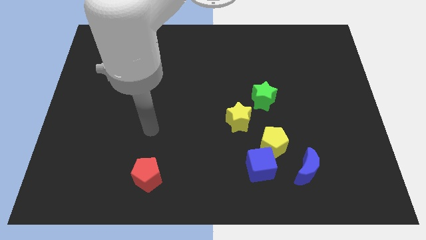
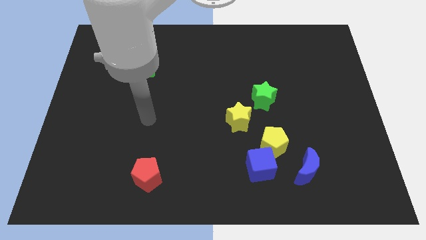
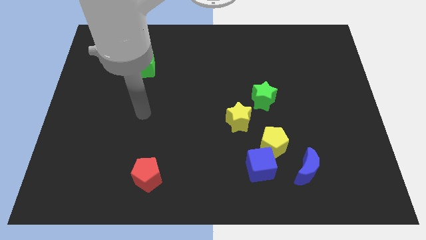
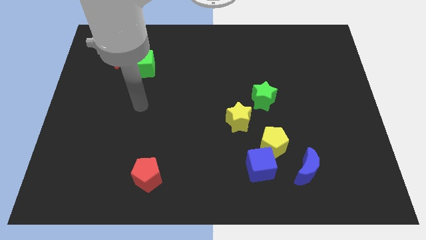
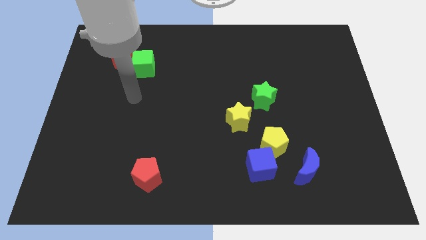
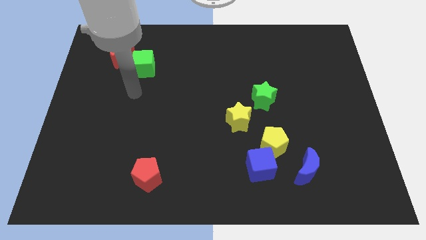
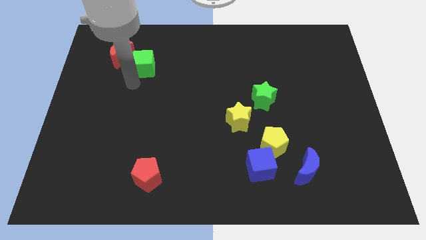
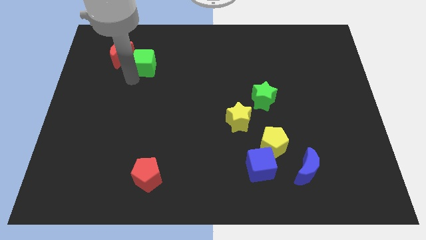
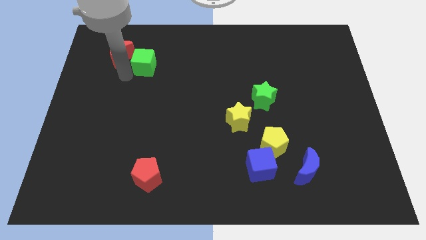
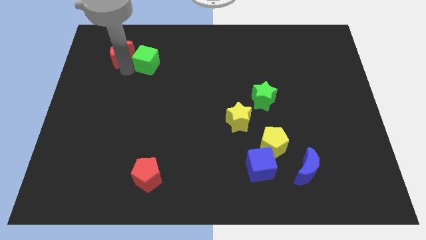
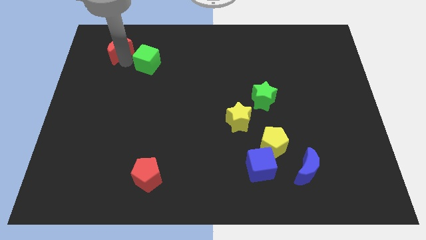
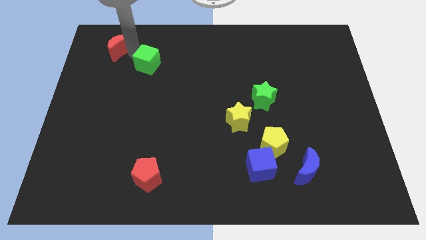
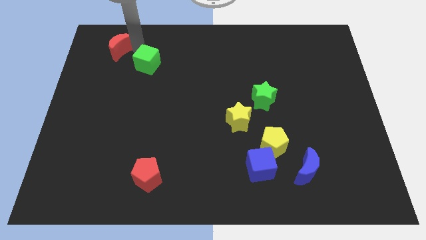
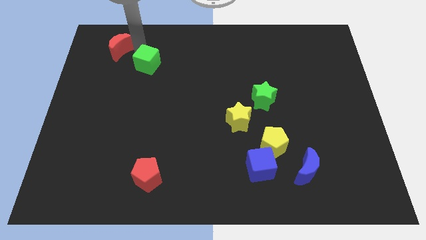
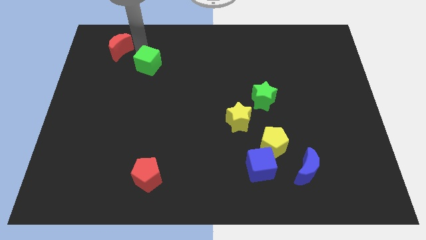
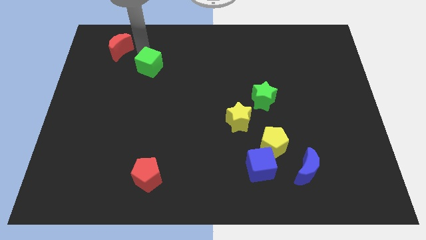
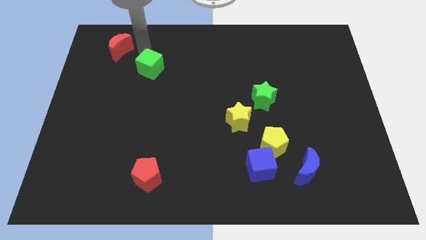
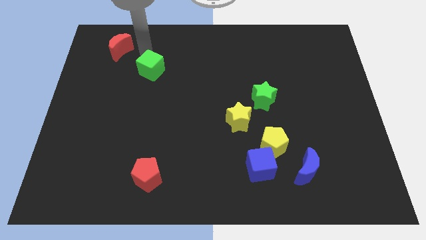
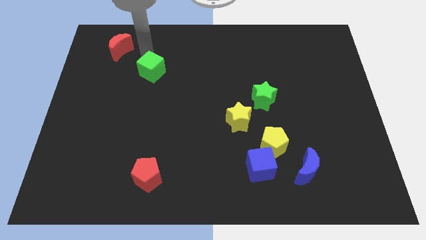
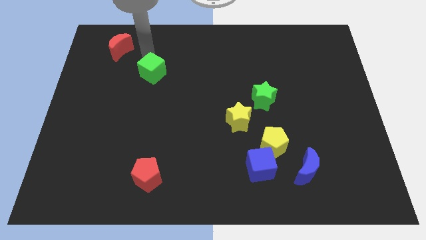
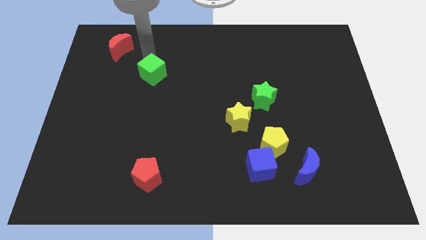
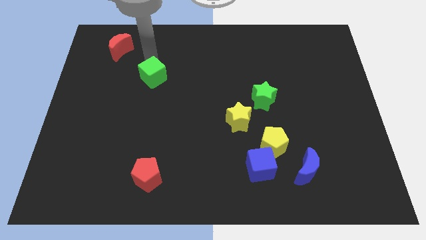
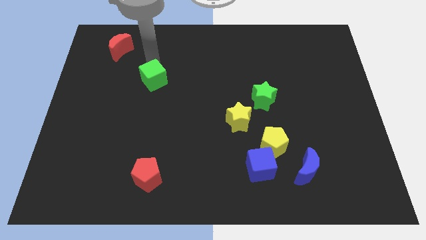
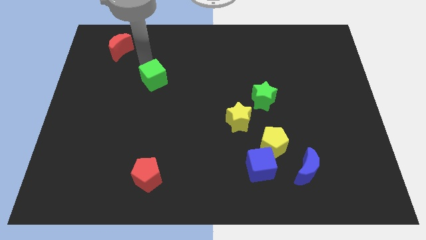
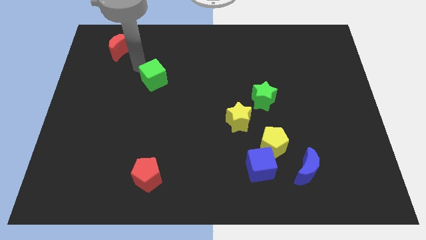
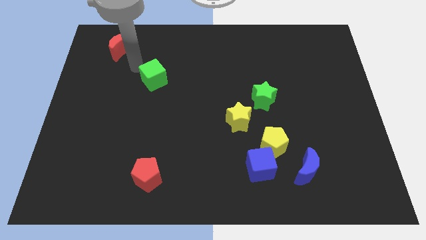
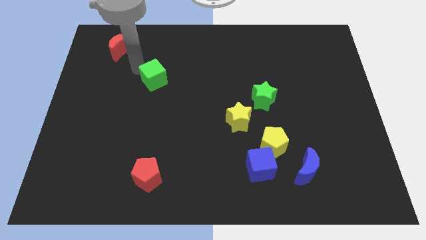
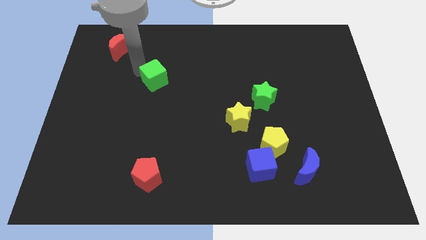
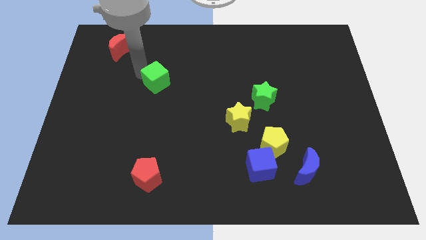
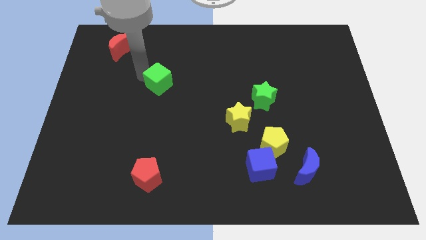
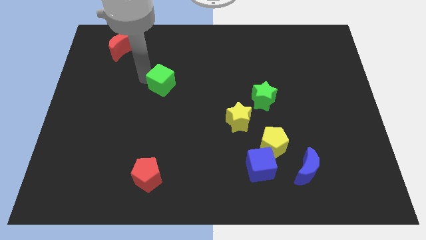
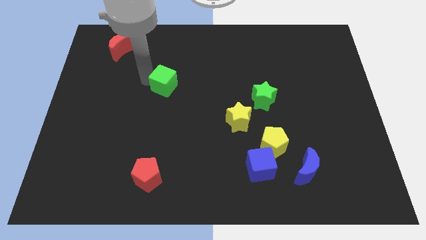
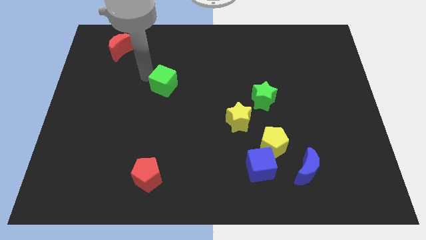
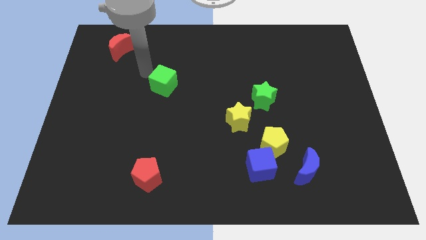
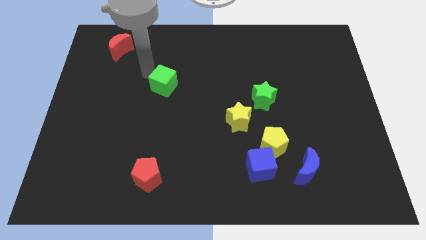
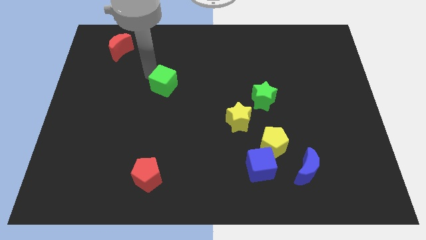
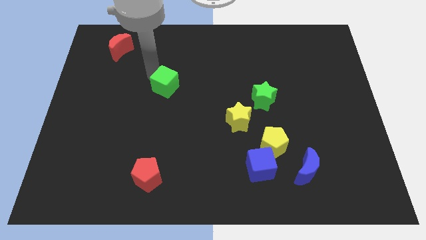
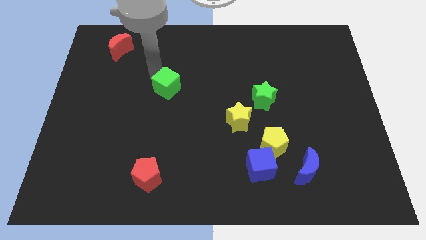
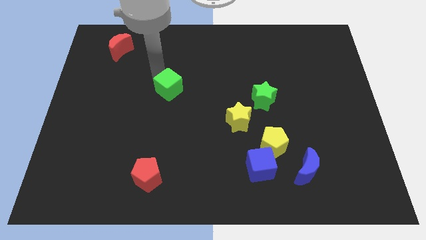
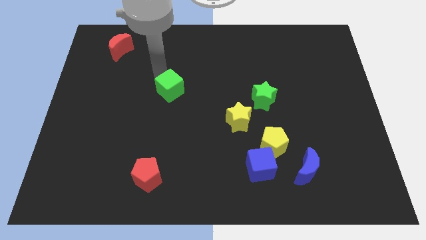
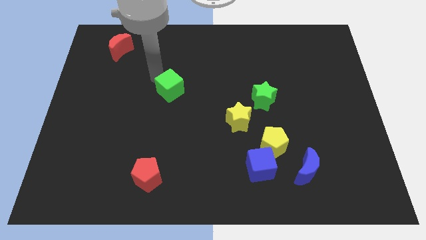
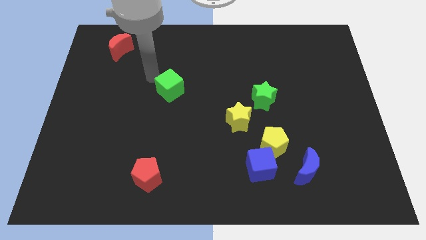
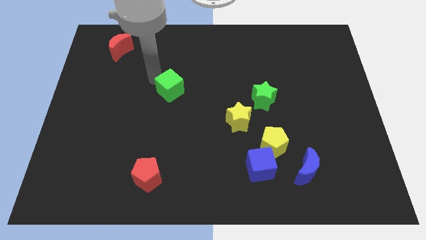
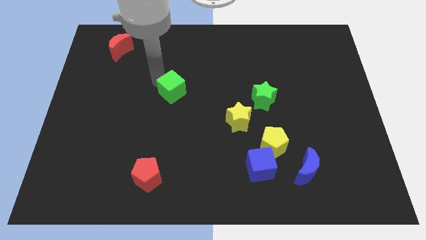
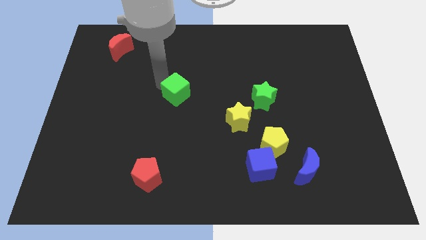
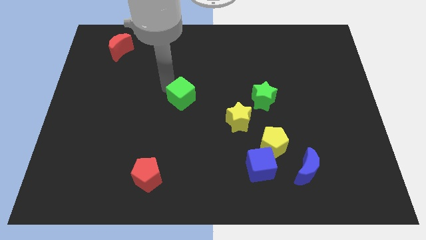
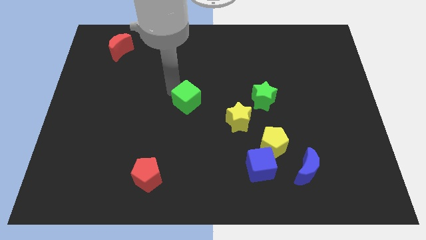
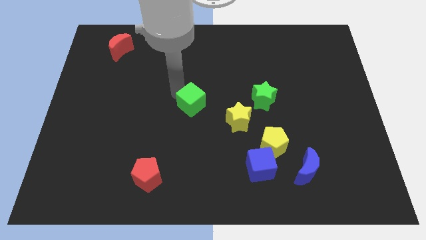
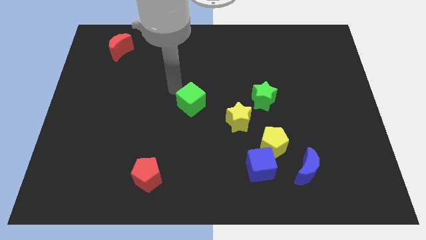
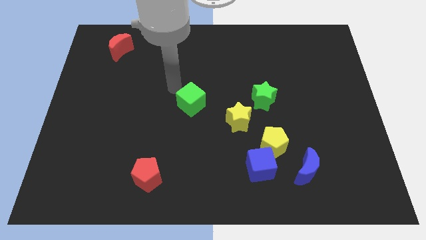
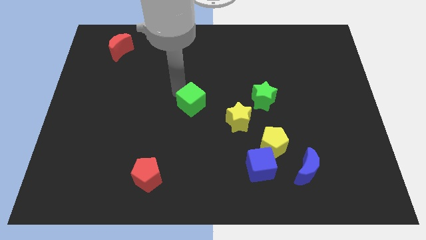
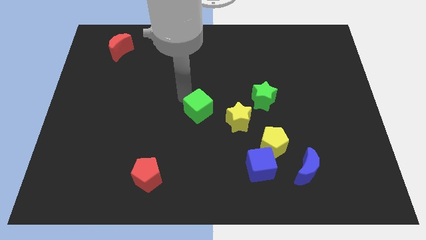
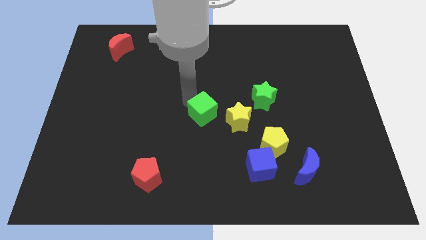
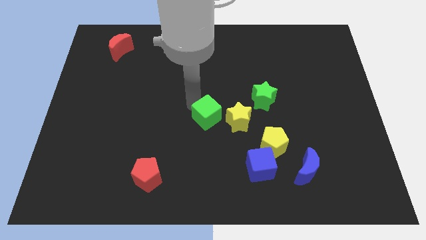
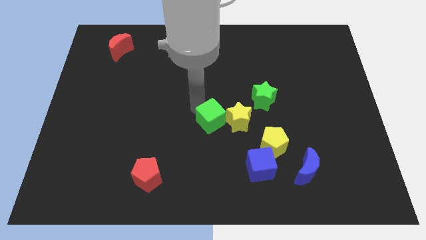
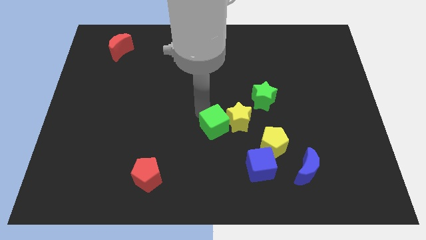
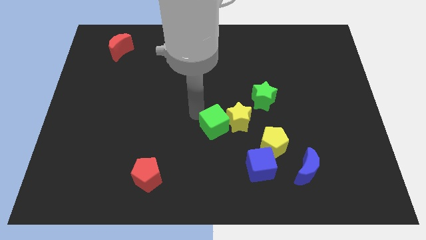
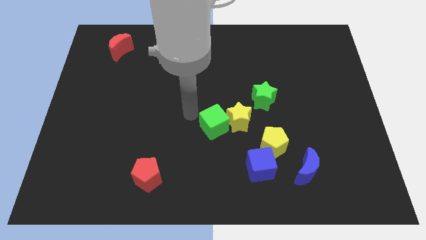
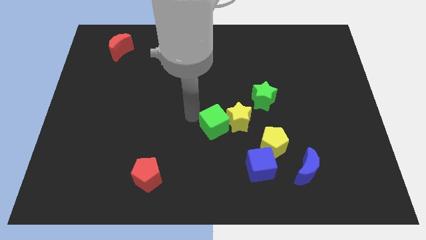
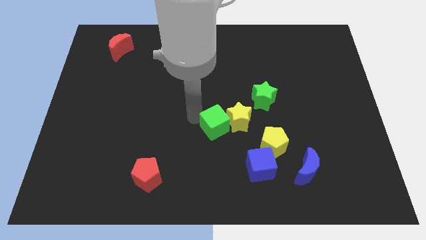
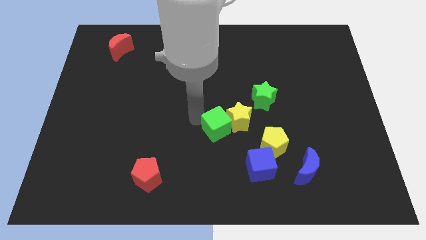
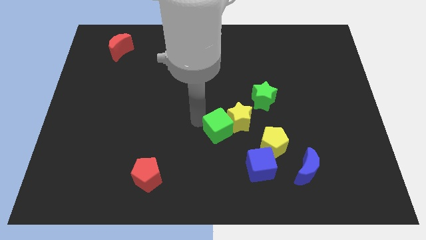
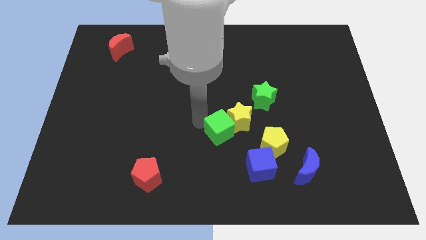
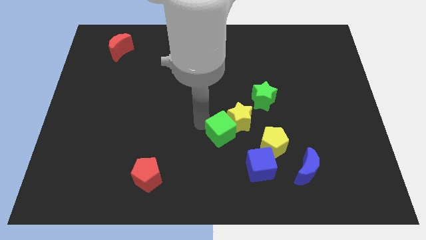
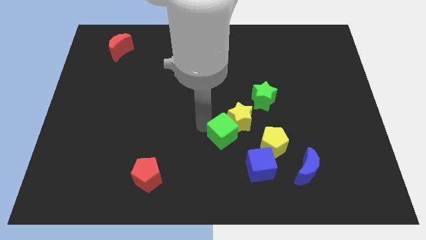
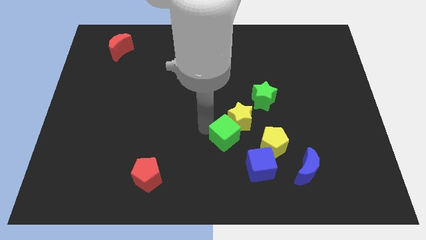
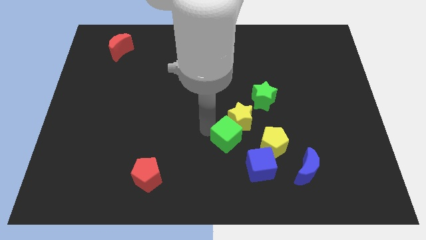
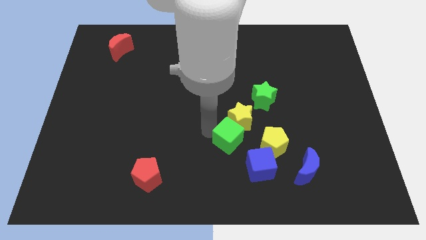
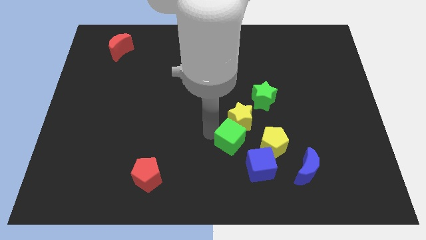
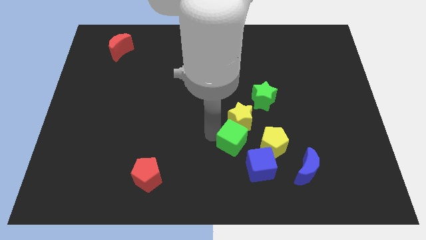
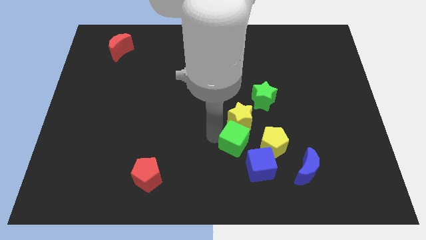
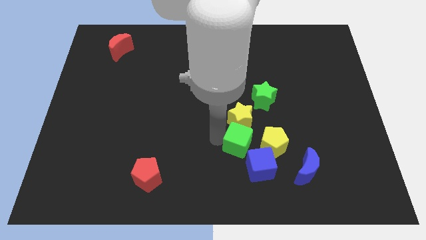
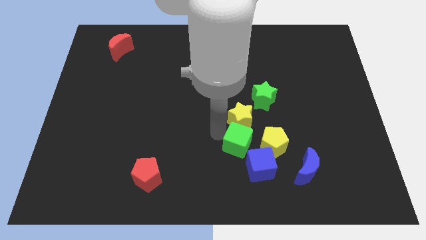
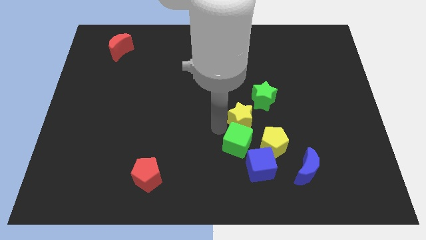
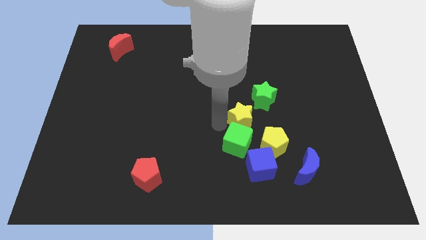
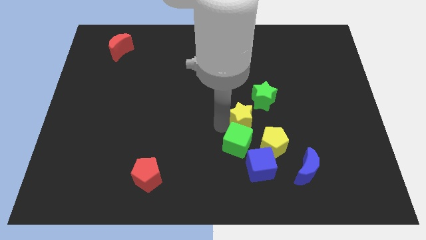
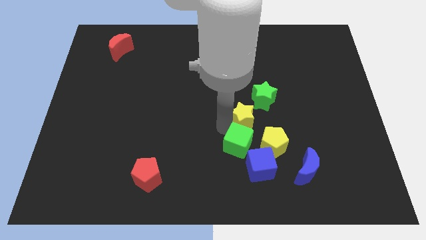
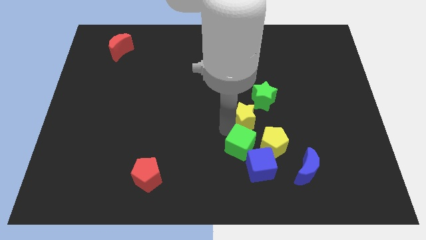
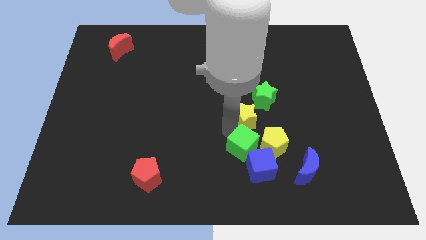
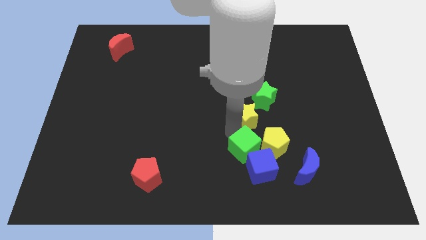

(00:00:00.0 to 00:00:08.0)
push the green cube close to the blue cube
